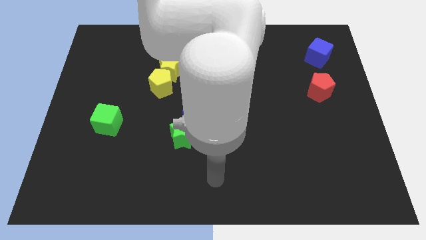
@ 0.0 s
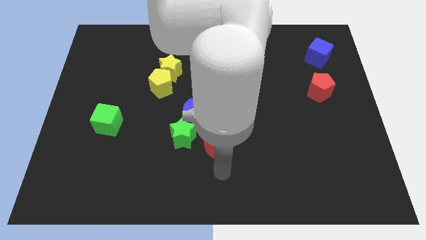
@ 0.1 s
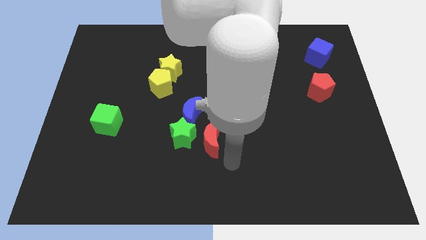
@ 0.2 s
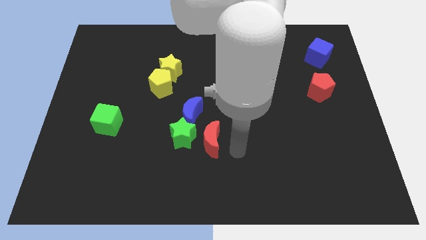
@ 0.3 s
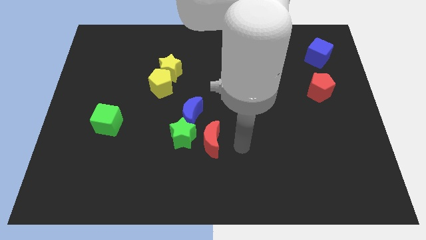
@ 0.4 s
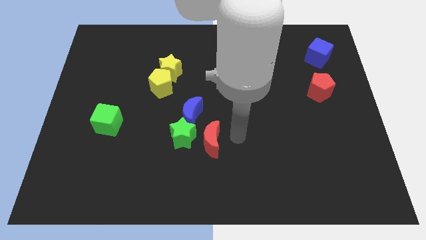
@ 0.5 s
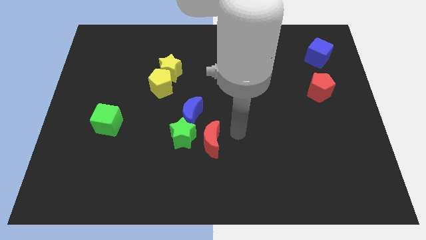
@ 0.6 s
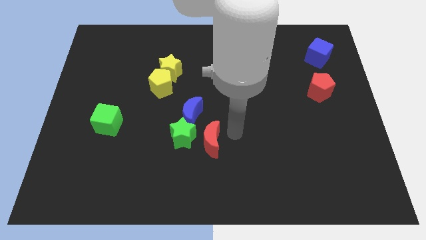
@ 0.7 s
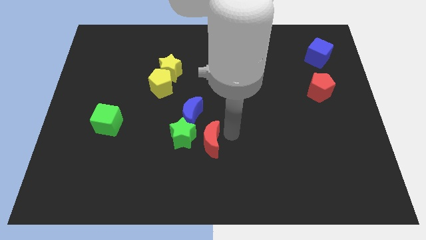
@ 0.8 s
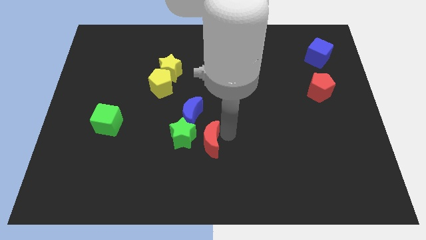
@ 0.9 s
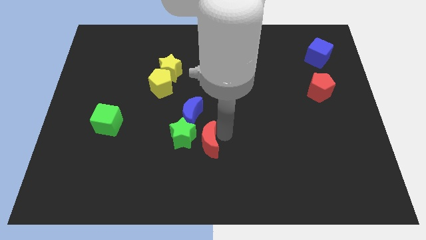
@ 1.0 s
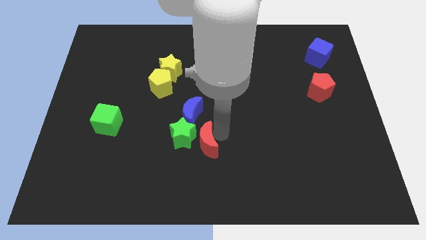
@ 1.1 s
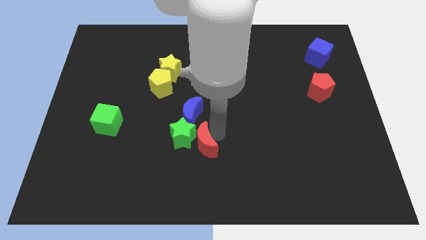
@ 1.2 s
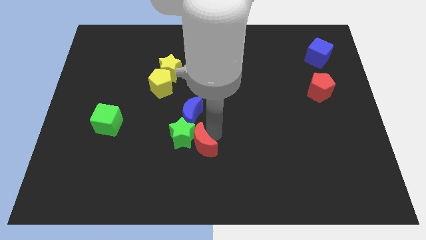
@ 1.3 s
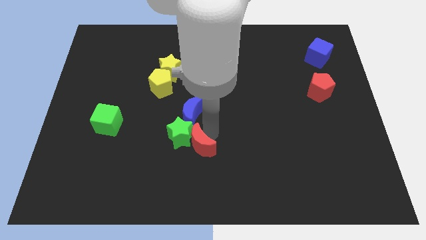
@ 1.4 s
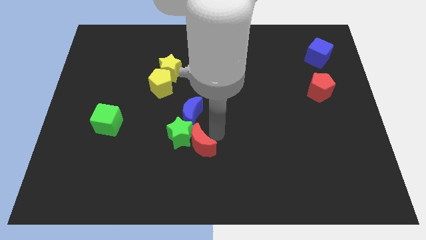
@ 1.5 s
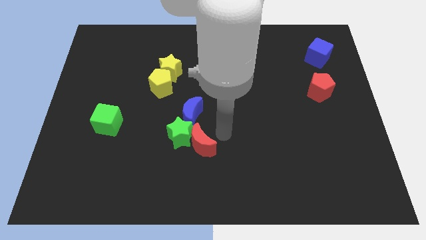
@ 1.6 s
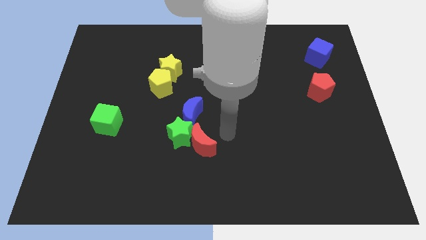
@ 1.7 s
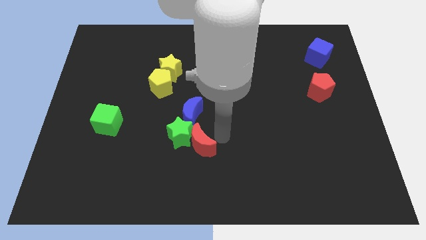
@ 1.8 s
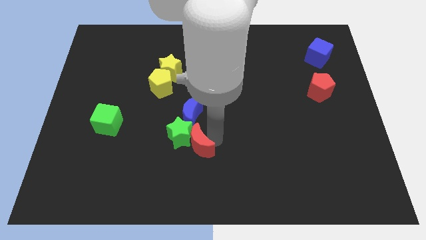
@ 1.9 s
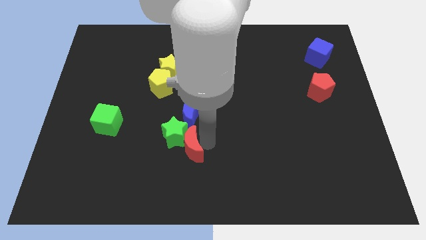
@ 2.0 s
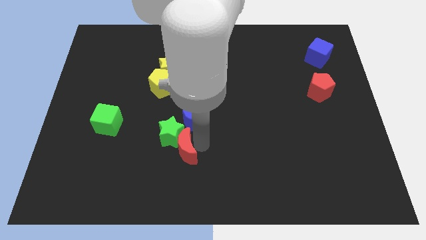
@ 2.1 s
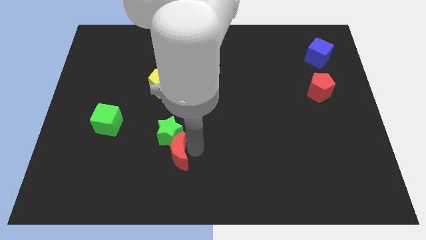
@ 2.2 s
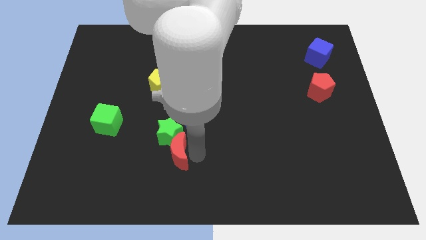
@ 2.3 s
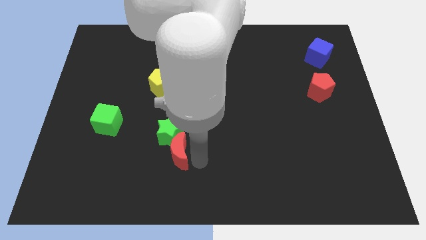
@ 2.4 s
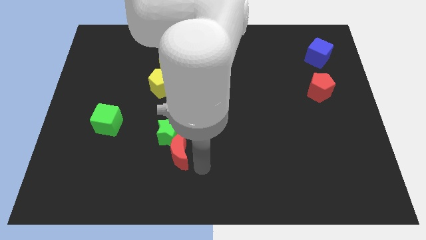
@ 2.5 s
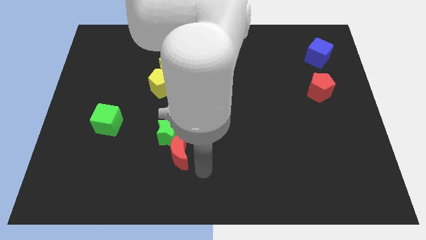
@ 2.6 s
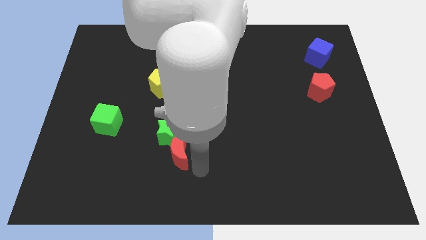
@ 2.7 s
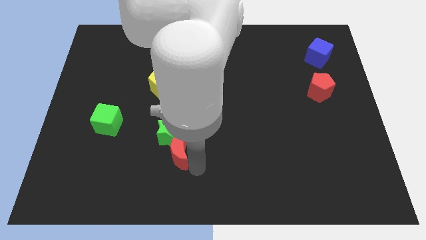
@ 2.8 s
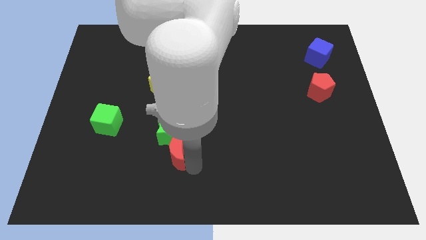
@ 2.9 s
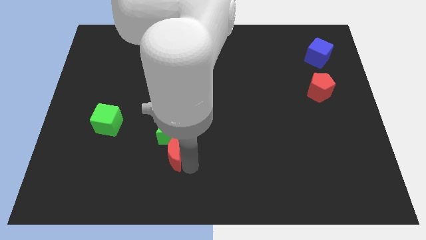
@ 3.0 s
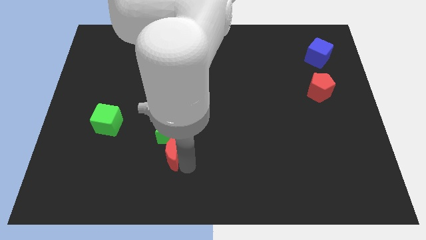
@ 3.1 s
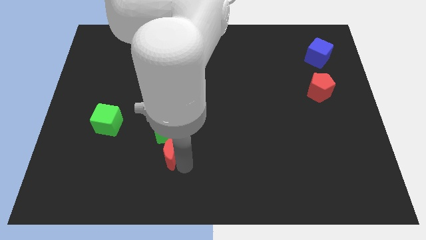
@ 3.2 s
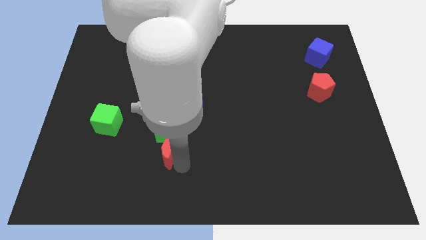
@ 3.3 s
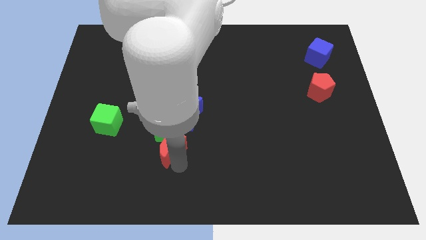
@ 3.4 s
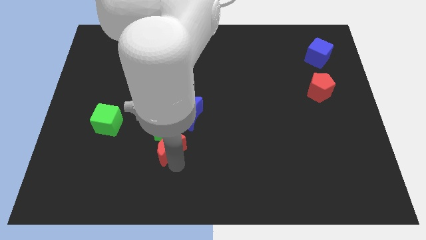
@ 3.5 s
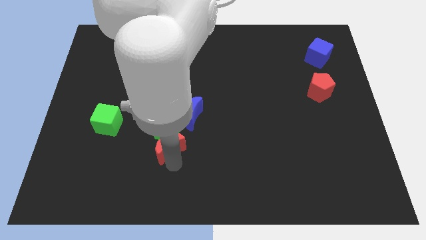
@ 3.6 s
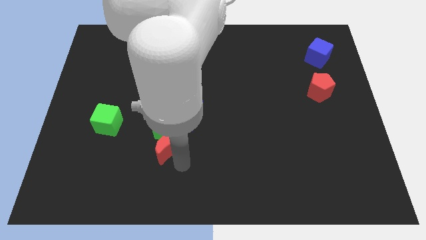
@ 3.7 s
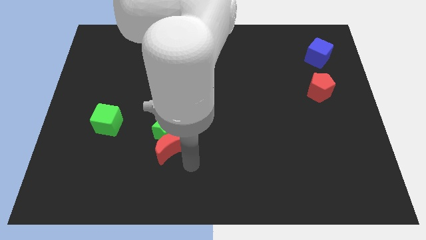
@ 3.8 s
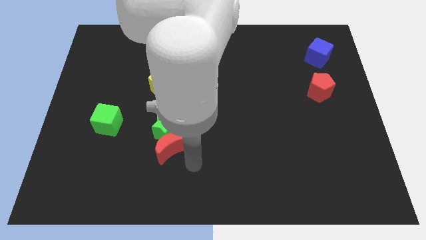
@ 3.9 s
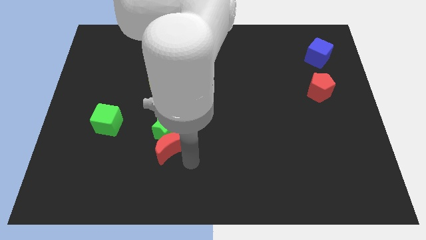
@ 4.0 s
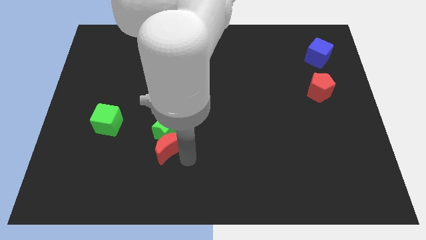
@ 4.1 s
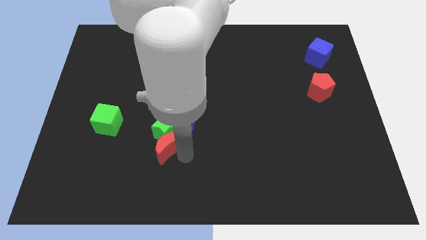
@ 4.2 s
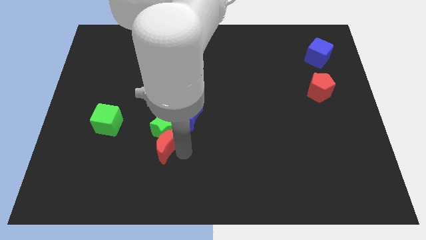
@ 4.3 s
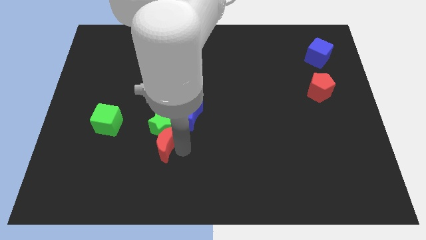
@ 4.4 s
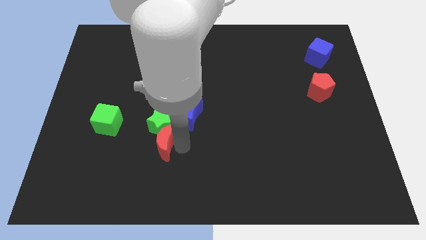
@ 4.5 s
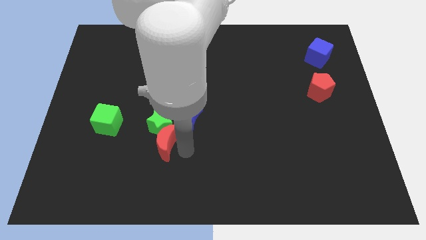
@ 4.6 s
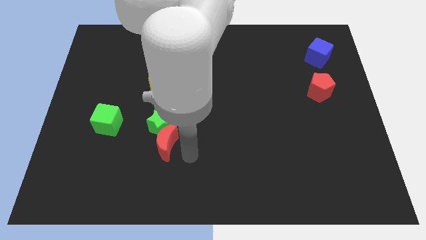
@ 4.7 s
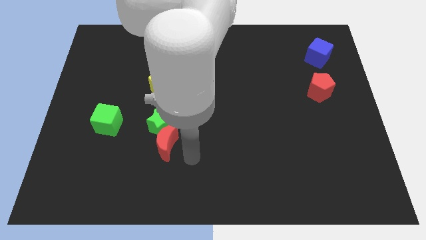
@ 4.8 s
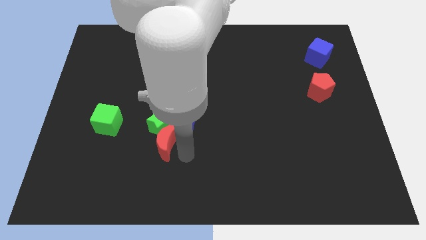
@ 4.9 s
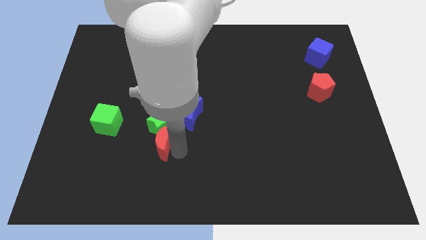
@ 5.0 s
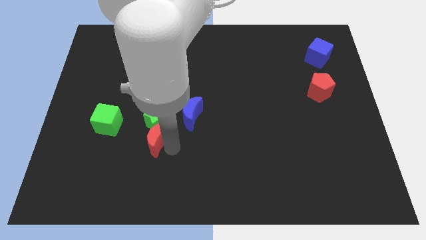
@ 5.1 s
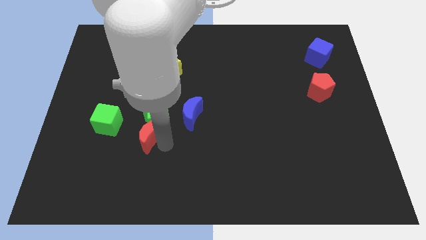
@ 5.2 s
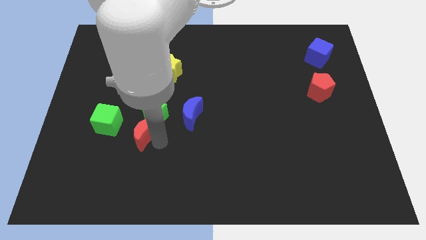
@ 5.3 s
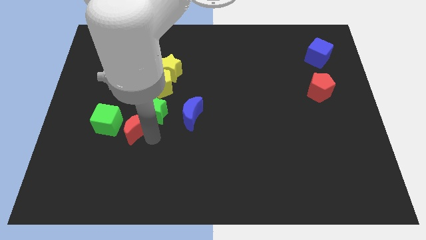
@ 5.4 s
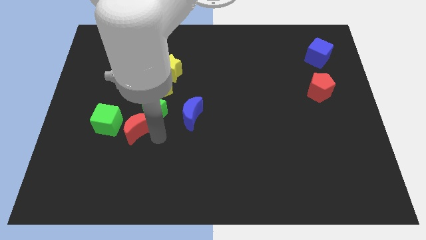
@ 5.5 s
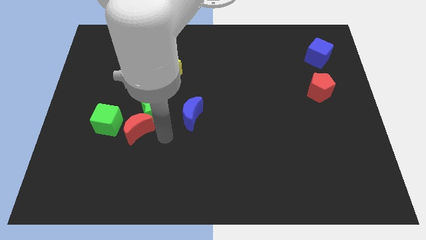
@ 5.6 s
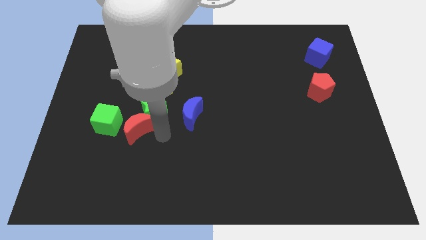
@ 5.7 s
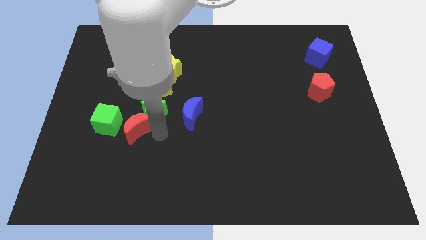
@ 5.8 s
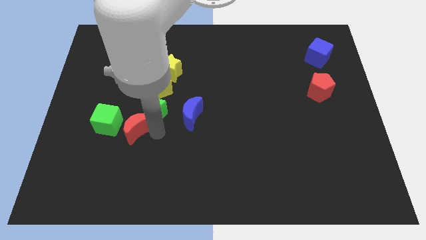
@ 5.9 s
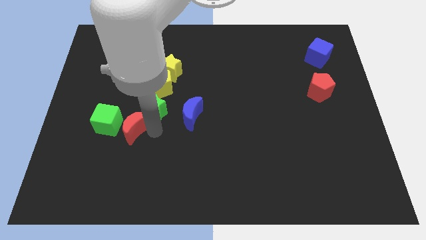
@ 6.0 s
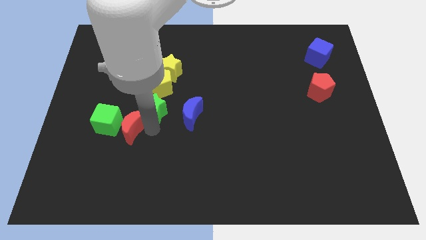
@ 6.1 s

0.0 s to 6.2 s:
move the red moon next to the green cube

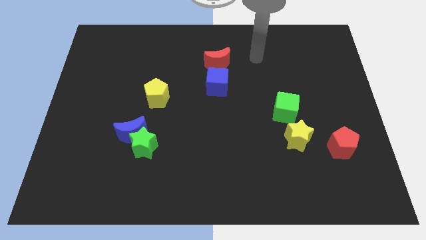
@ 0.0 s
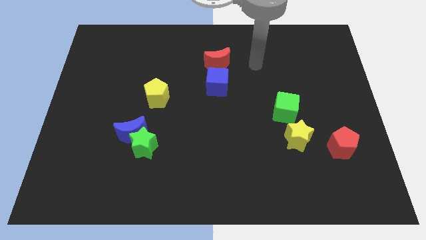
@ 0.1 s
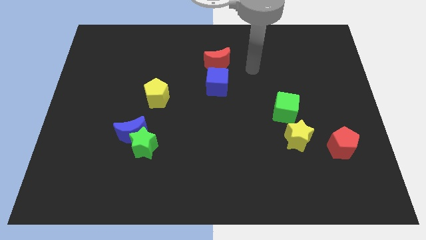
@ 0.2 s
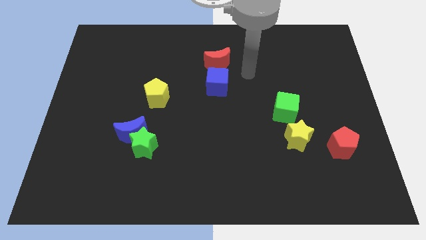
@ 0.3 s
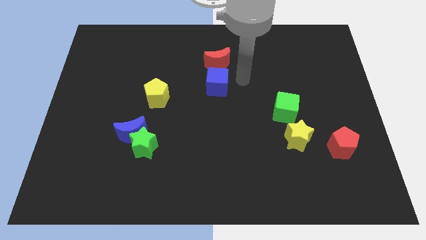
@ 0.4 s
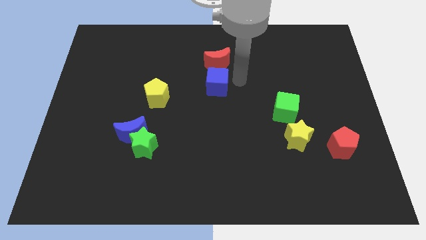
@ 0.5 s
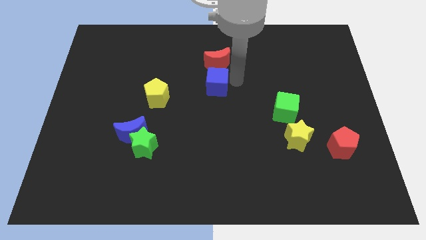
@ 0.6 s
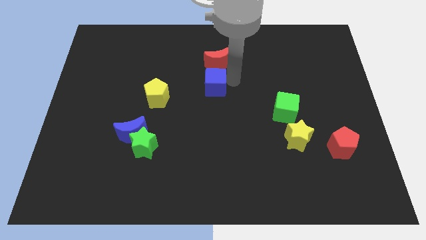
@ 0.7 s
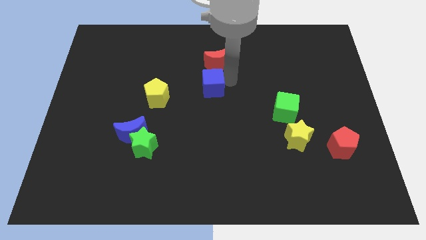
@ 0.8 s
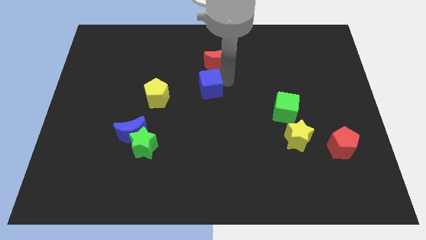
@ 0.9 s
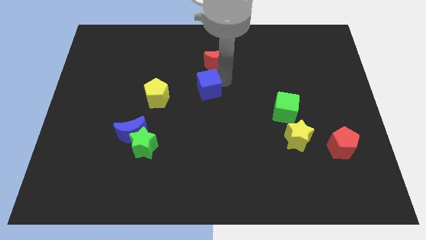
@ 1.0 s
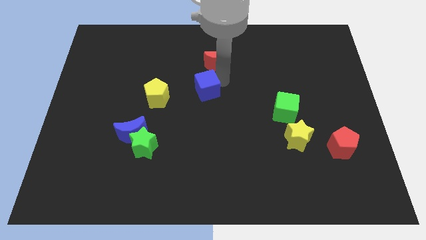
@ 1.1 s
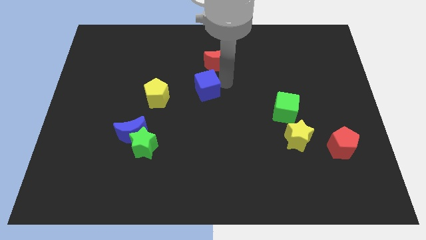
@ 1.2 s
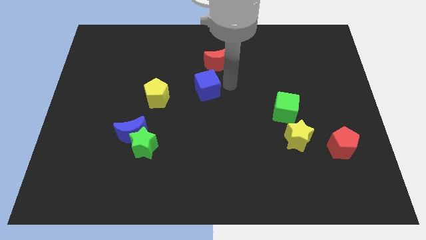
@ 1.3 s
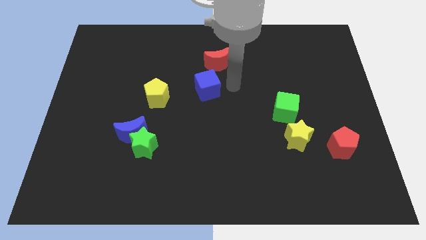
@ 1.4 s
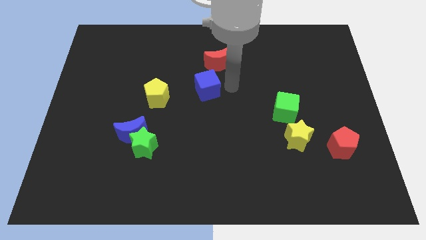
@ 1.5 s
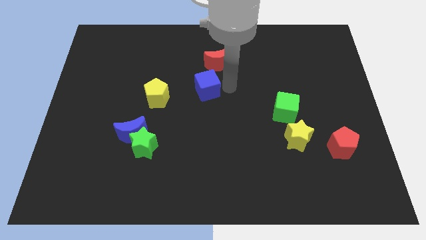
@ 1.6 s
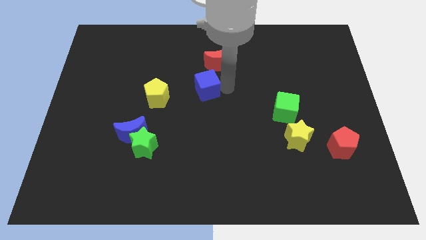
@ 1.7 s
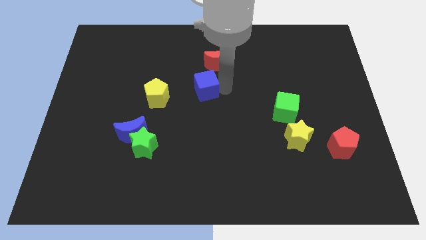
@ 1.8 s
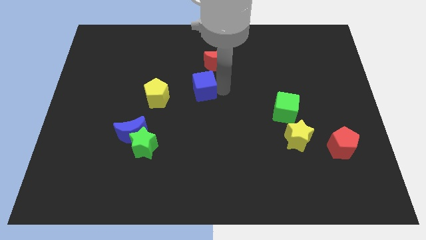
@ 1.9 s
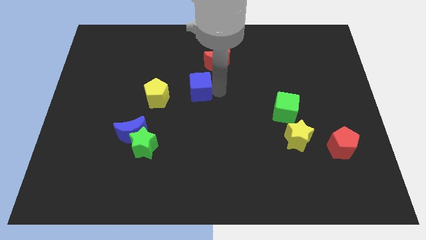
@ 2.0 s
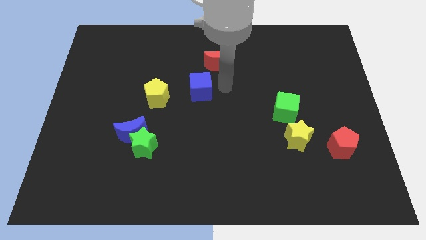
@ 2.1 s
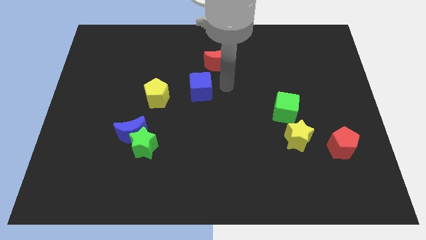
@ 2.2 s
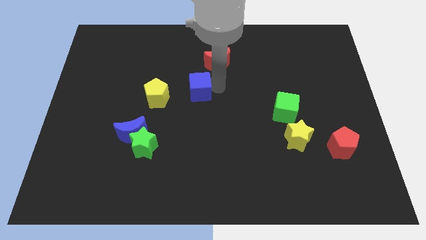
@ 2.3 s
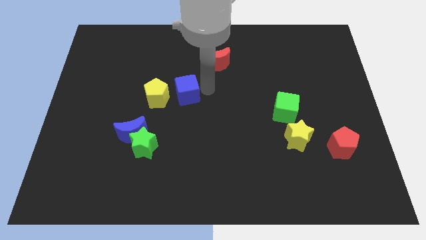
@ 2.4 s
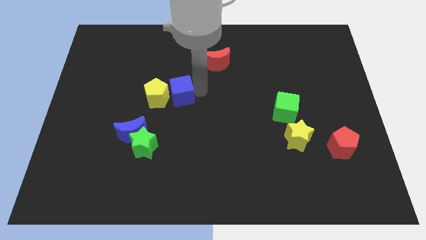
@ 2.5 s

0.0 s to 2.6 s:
put the blue cube close to the yellow pentagon
